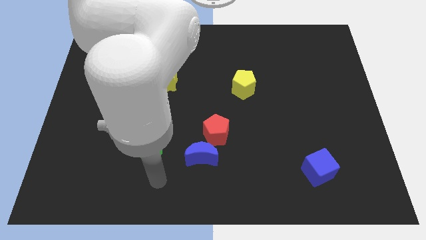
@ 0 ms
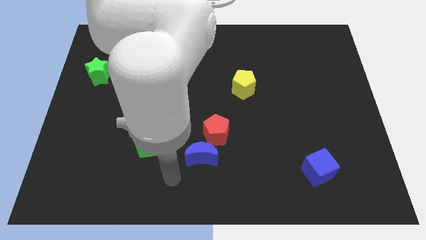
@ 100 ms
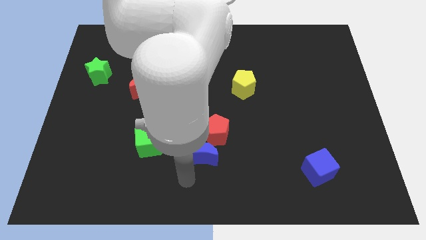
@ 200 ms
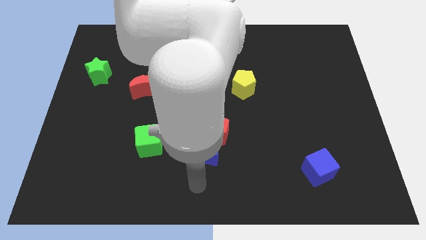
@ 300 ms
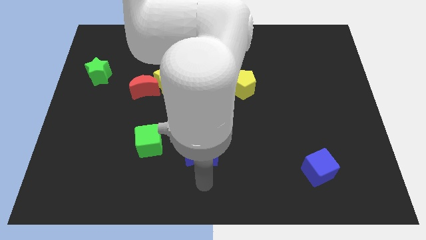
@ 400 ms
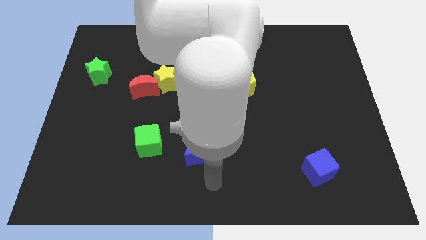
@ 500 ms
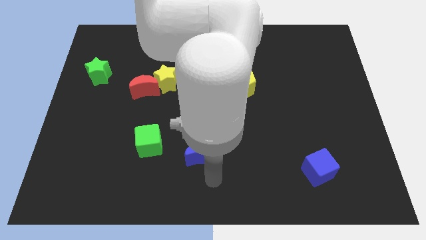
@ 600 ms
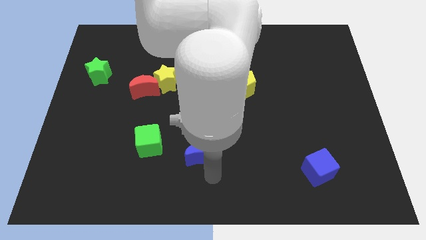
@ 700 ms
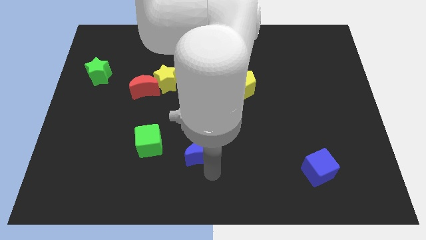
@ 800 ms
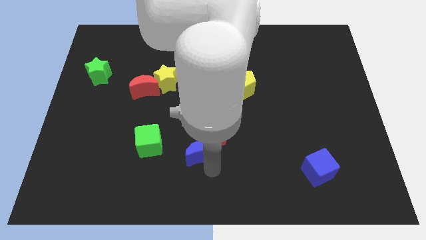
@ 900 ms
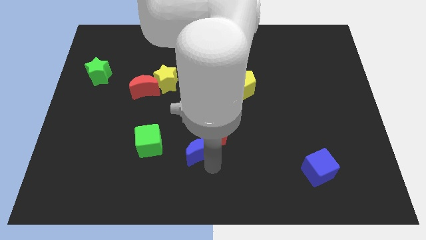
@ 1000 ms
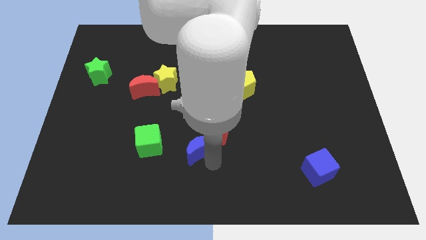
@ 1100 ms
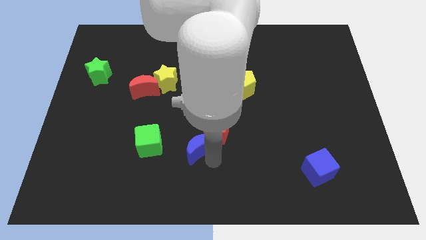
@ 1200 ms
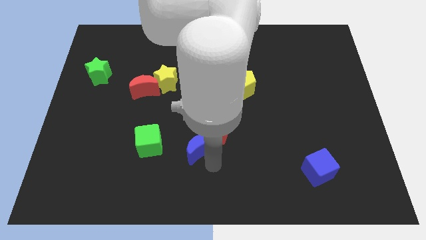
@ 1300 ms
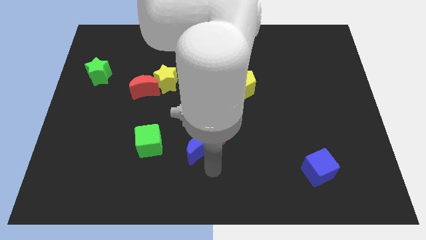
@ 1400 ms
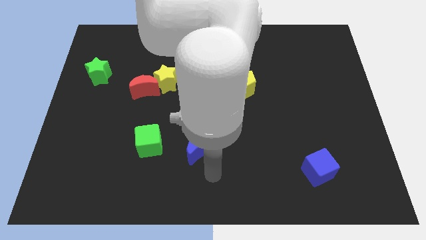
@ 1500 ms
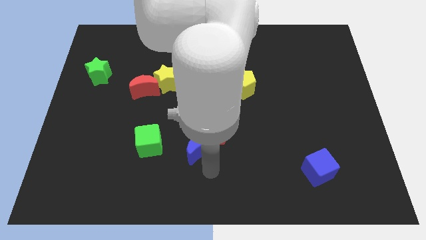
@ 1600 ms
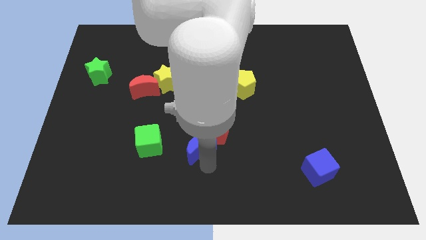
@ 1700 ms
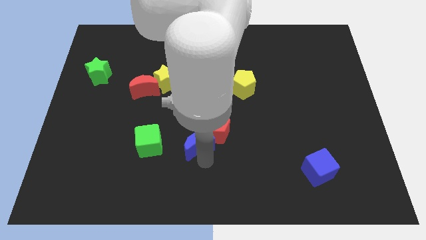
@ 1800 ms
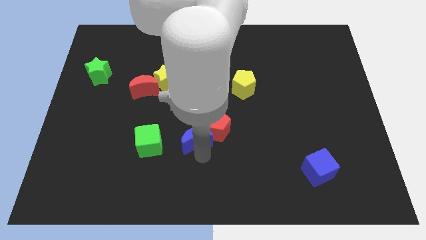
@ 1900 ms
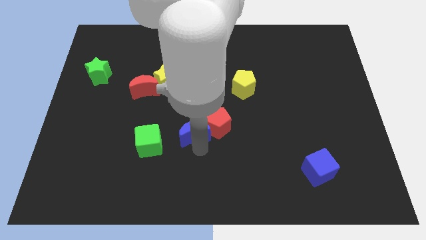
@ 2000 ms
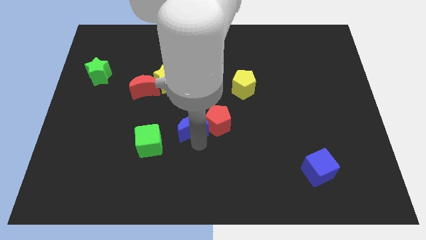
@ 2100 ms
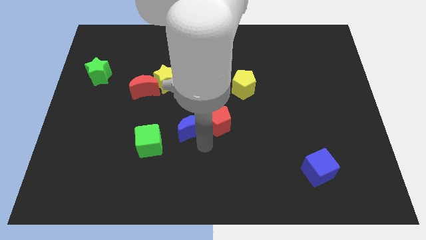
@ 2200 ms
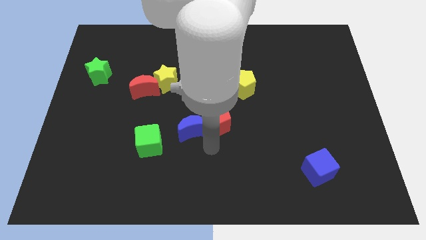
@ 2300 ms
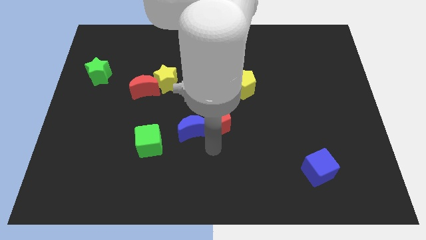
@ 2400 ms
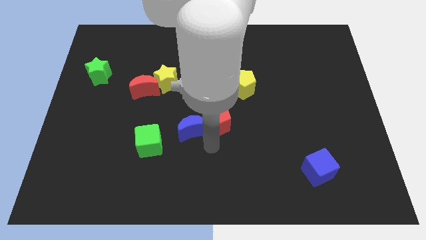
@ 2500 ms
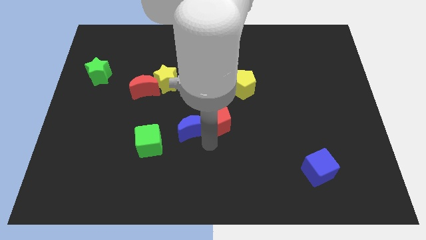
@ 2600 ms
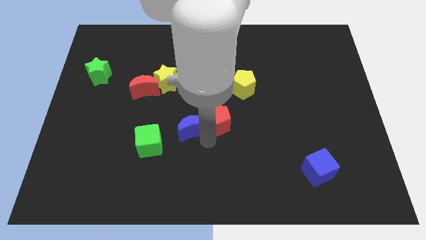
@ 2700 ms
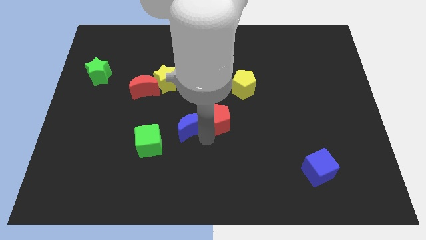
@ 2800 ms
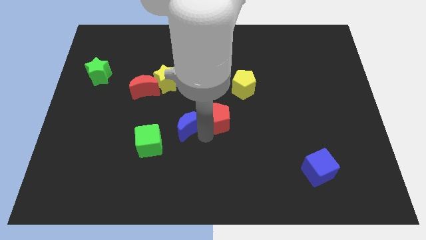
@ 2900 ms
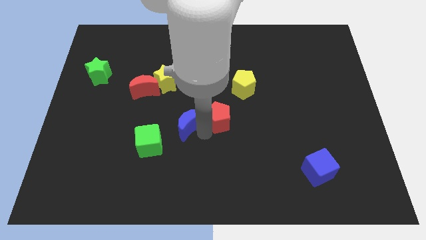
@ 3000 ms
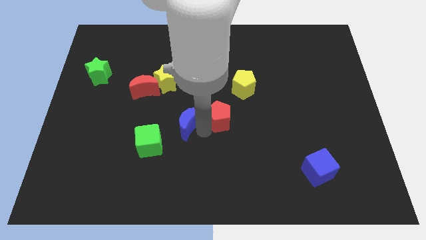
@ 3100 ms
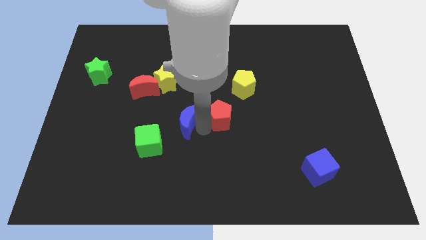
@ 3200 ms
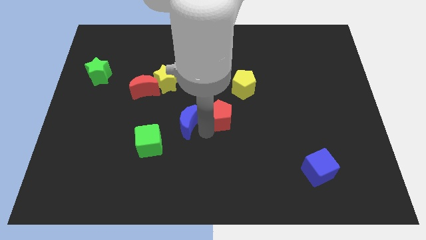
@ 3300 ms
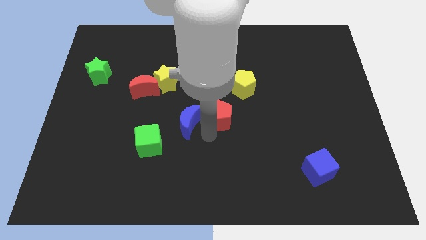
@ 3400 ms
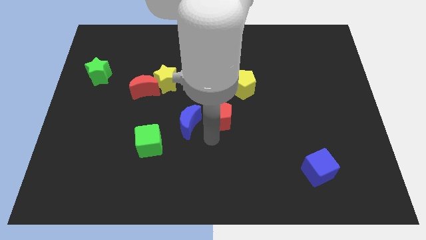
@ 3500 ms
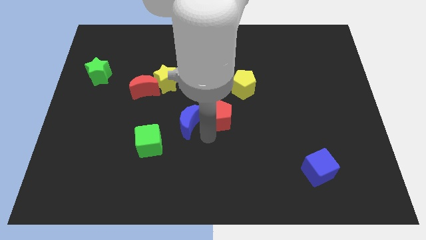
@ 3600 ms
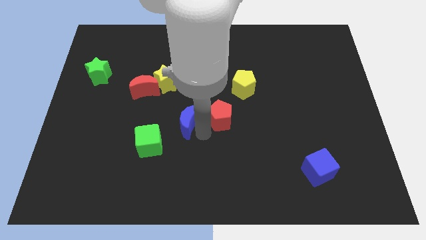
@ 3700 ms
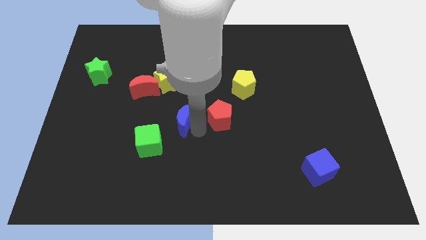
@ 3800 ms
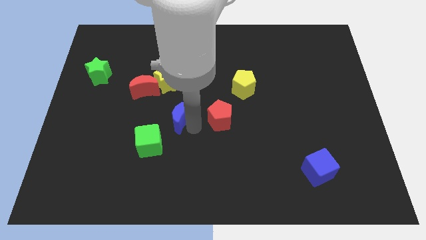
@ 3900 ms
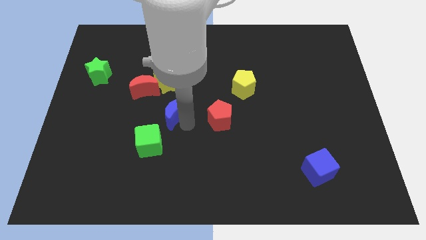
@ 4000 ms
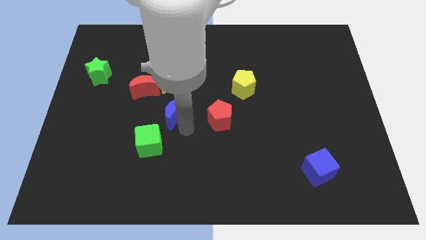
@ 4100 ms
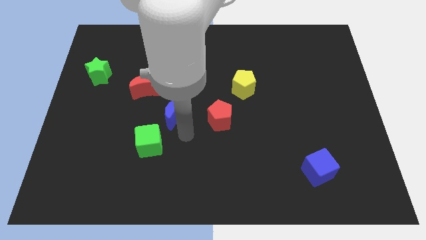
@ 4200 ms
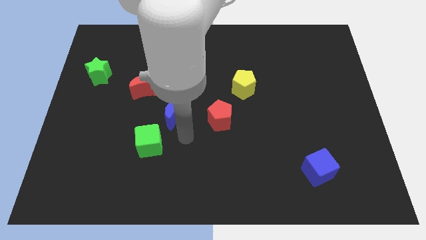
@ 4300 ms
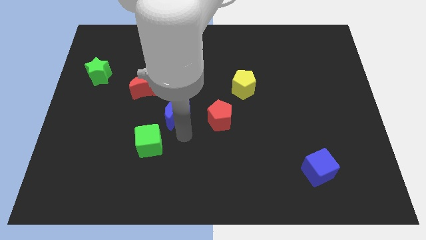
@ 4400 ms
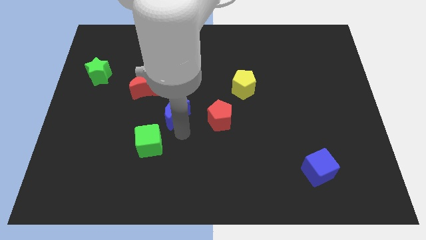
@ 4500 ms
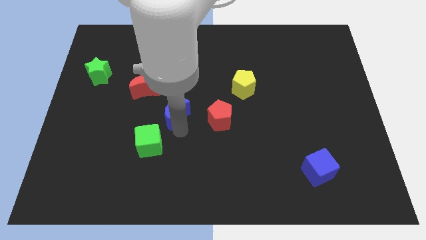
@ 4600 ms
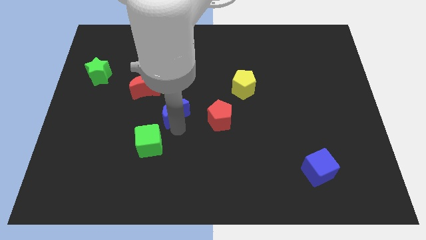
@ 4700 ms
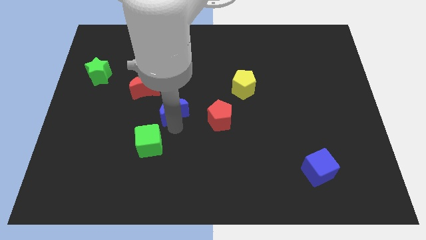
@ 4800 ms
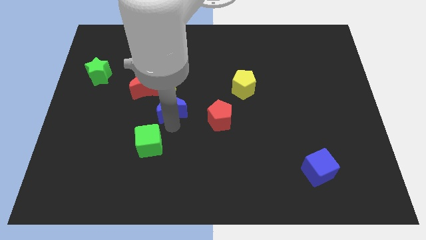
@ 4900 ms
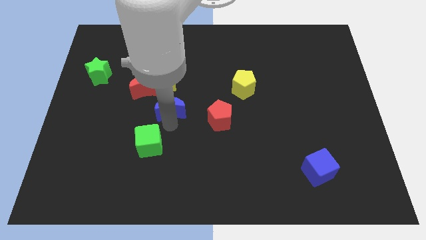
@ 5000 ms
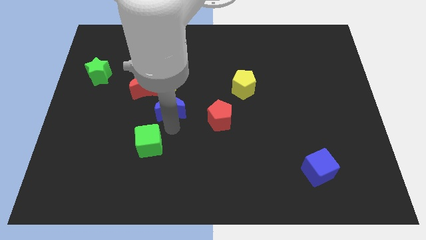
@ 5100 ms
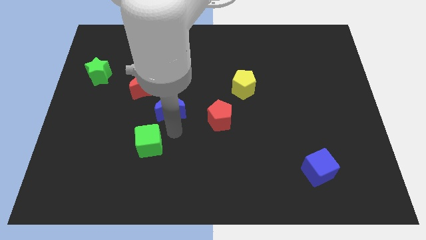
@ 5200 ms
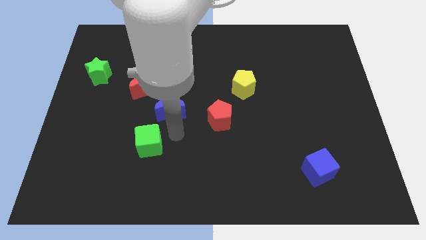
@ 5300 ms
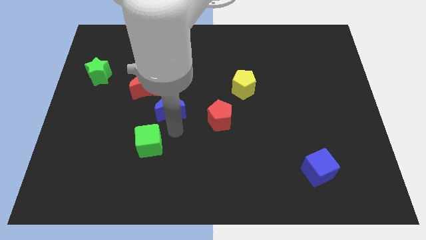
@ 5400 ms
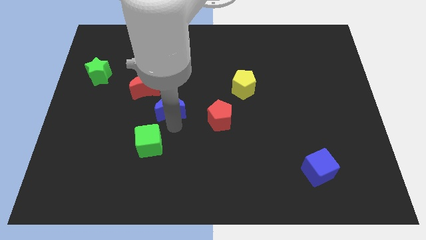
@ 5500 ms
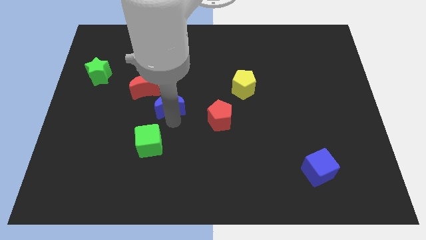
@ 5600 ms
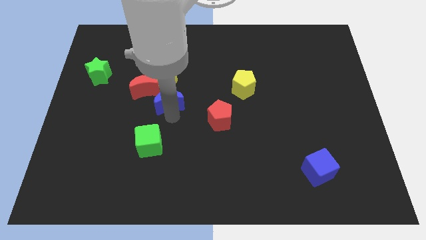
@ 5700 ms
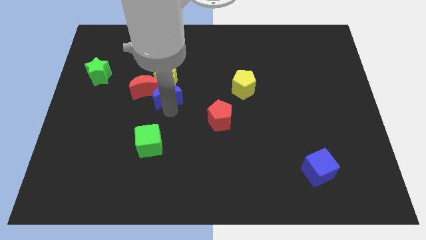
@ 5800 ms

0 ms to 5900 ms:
push the blue moon to the yellow star

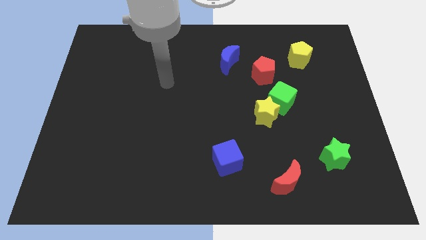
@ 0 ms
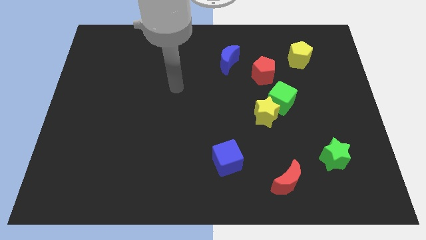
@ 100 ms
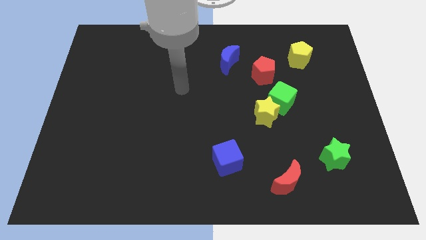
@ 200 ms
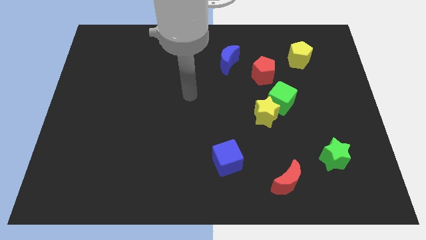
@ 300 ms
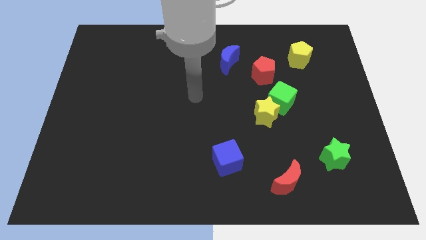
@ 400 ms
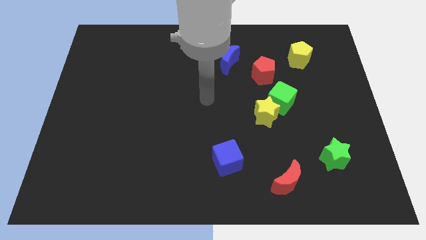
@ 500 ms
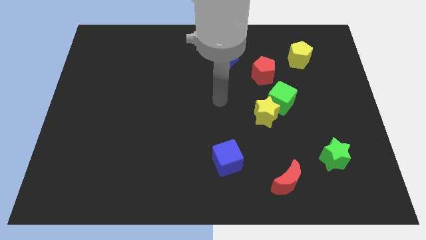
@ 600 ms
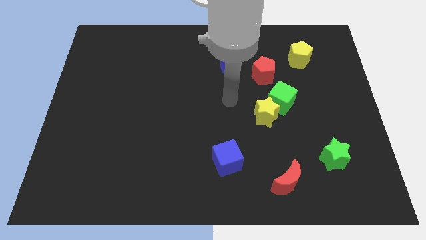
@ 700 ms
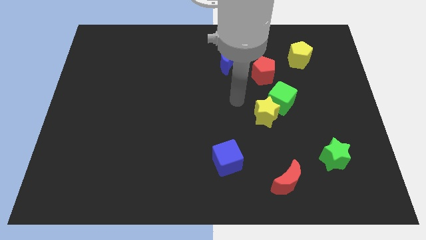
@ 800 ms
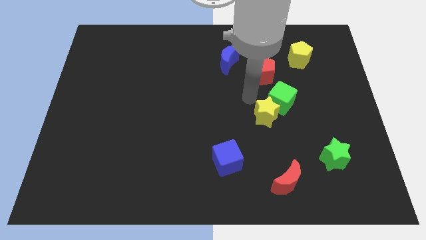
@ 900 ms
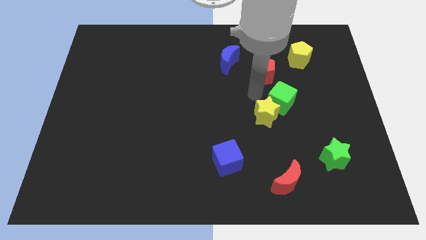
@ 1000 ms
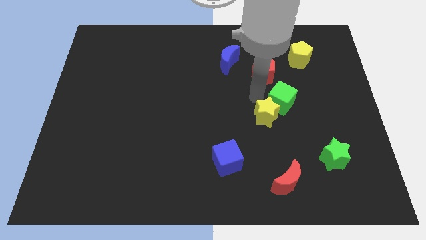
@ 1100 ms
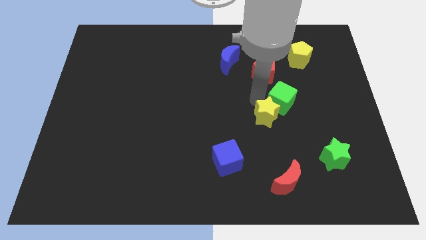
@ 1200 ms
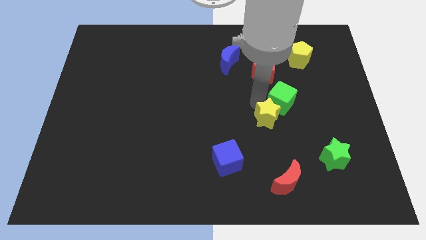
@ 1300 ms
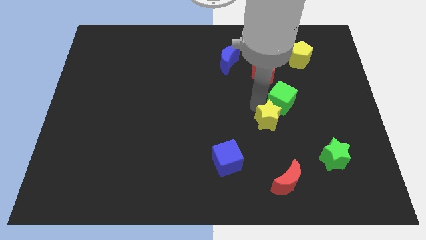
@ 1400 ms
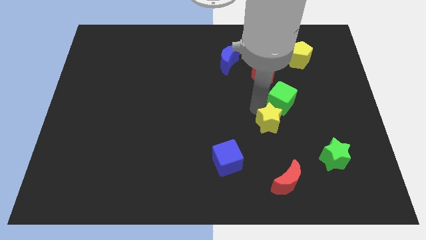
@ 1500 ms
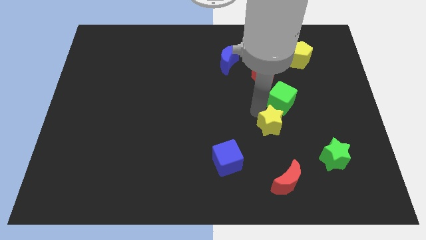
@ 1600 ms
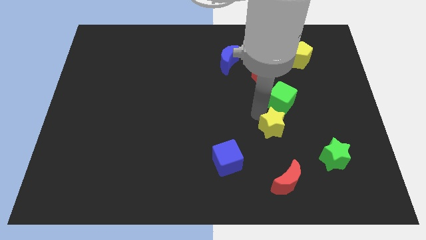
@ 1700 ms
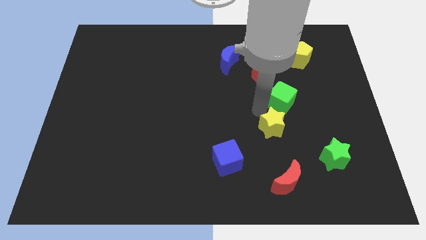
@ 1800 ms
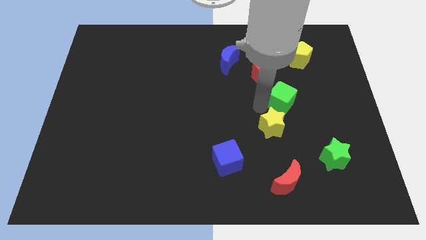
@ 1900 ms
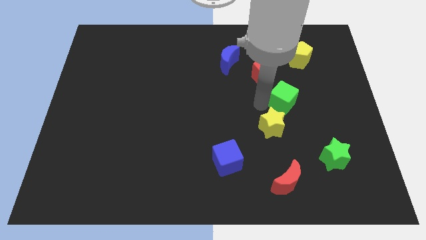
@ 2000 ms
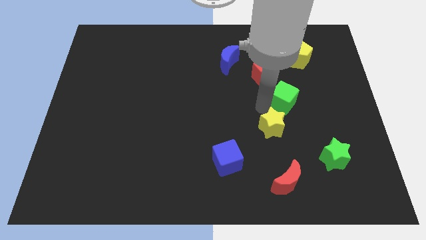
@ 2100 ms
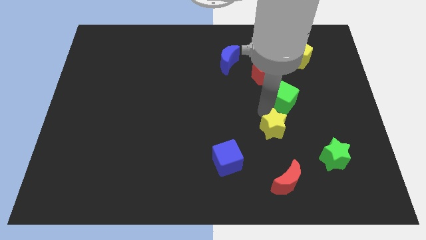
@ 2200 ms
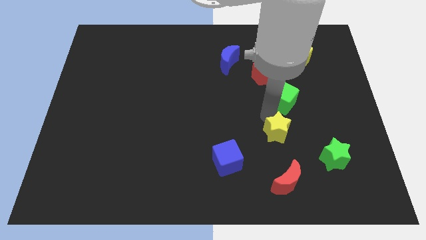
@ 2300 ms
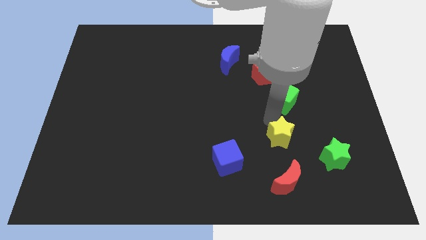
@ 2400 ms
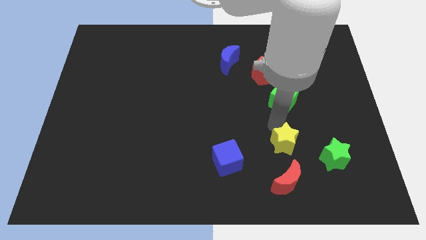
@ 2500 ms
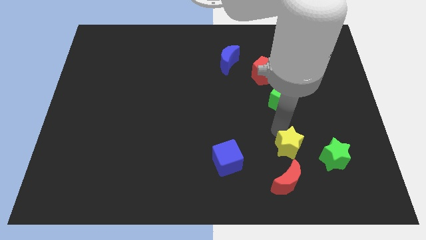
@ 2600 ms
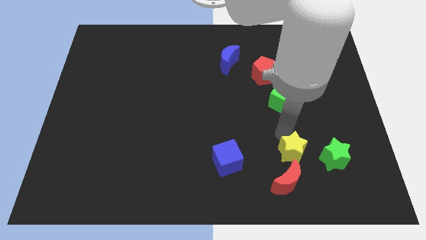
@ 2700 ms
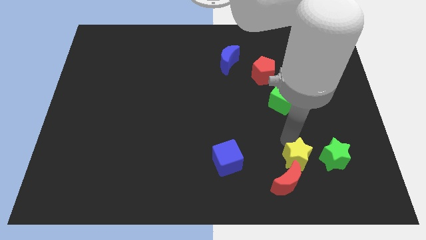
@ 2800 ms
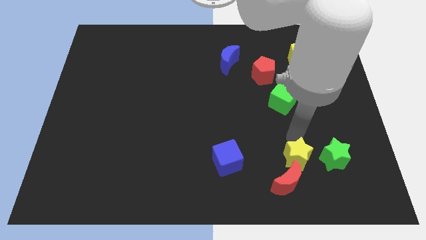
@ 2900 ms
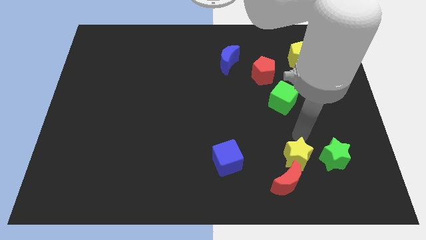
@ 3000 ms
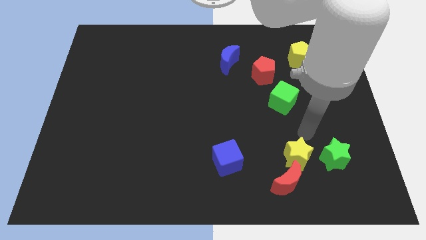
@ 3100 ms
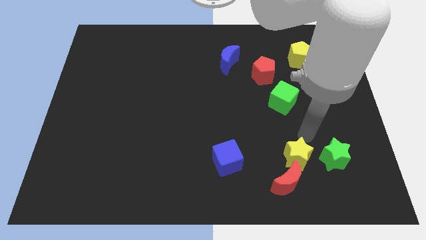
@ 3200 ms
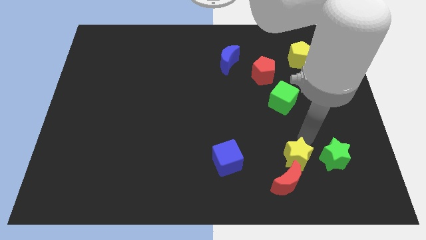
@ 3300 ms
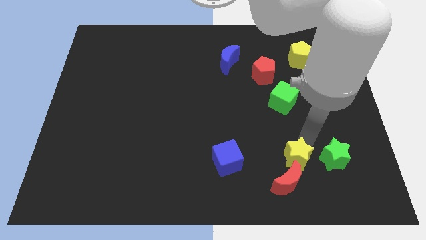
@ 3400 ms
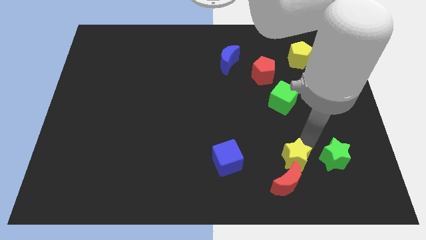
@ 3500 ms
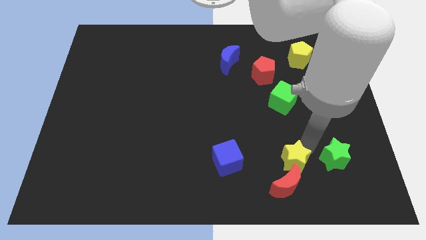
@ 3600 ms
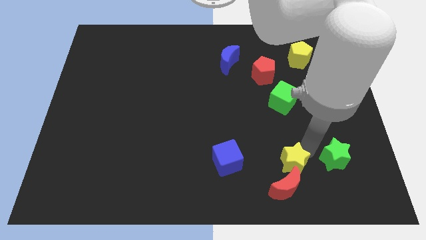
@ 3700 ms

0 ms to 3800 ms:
move the yellow star next to the red moon
